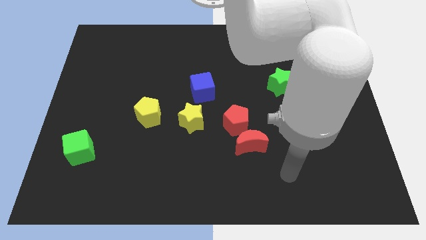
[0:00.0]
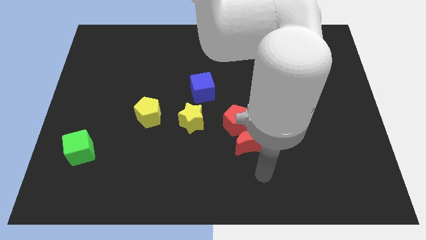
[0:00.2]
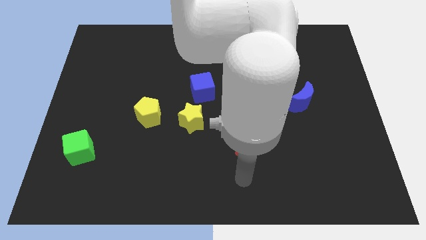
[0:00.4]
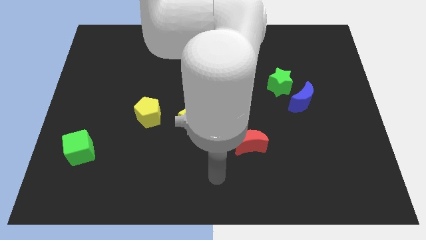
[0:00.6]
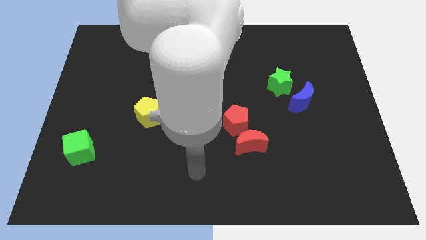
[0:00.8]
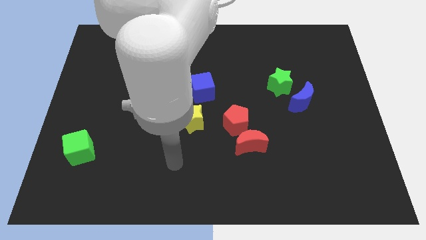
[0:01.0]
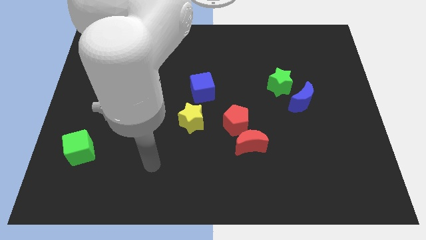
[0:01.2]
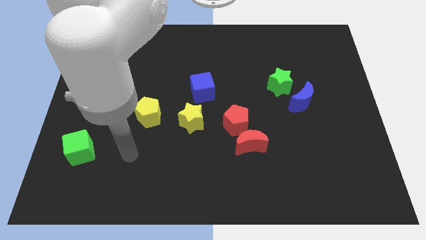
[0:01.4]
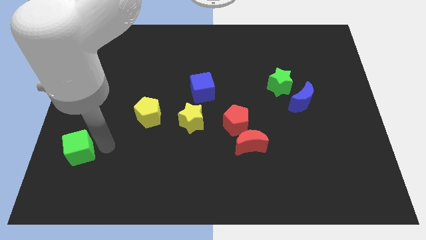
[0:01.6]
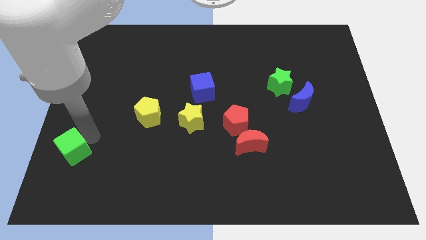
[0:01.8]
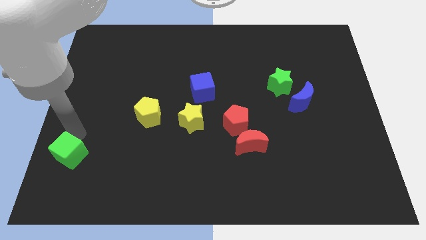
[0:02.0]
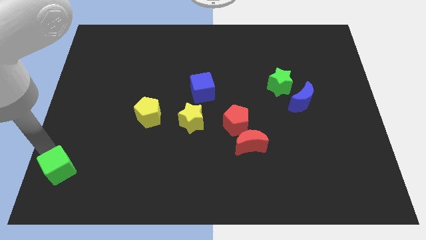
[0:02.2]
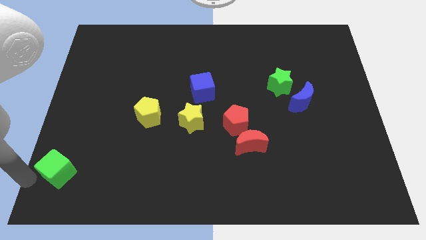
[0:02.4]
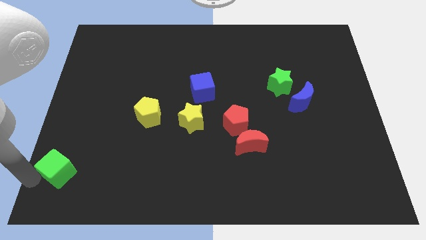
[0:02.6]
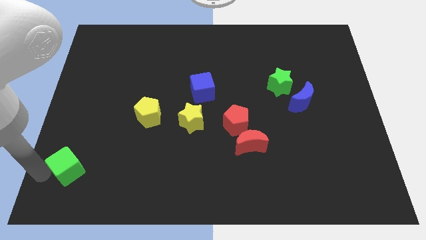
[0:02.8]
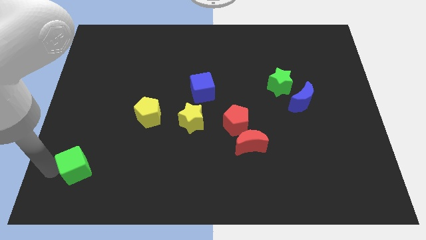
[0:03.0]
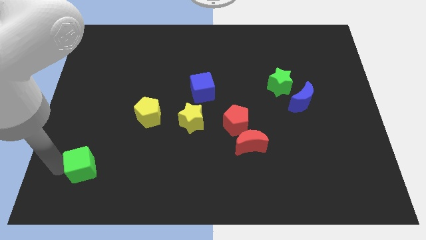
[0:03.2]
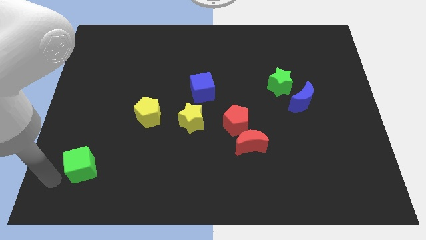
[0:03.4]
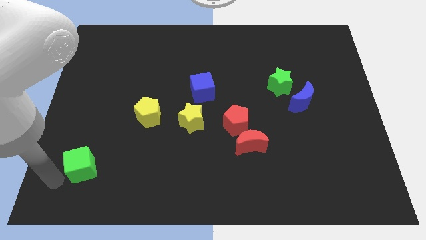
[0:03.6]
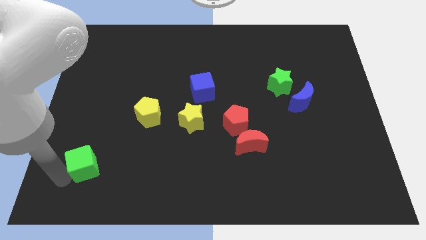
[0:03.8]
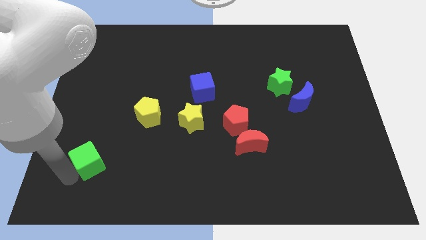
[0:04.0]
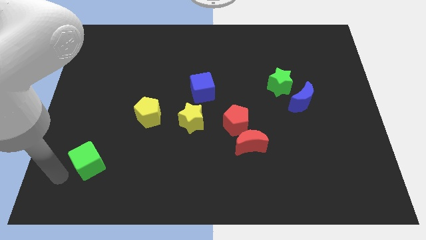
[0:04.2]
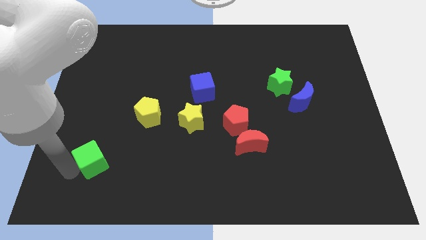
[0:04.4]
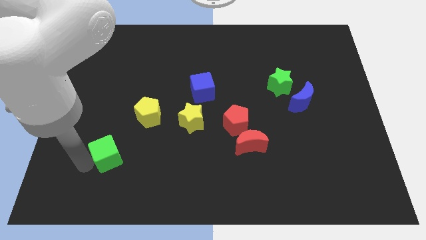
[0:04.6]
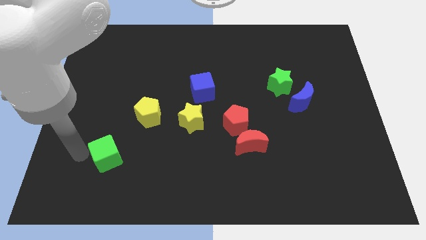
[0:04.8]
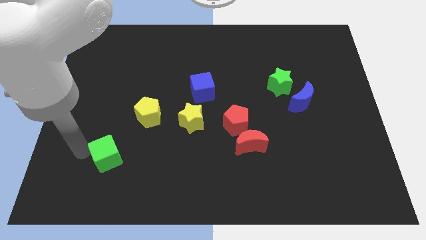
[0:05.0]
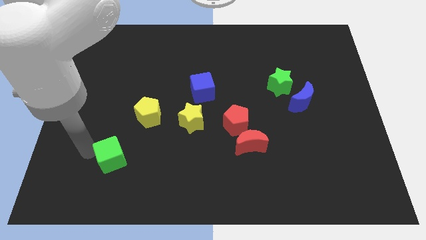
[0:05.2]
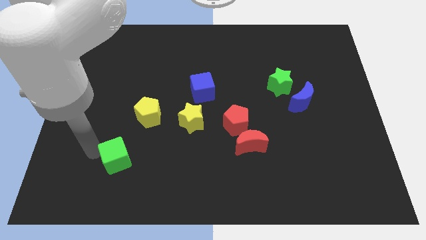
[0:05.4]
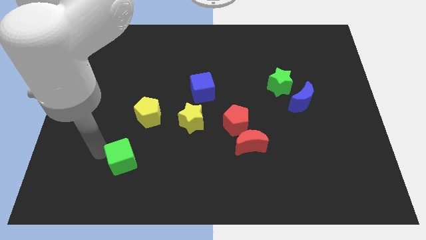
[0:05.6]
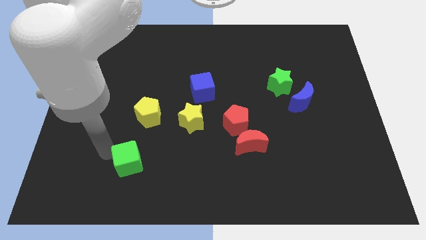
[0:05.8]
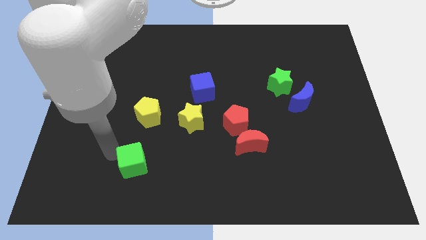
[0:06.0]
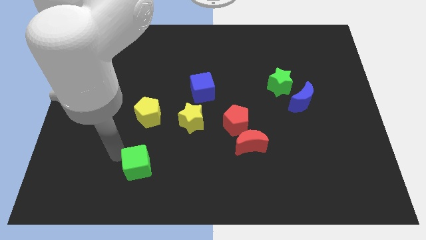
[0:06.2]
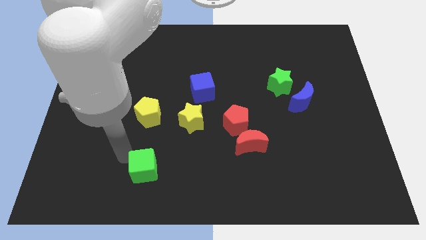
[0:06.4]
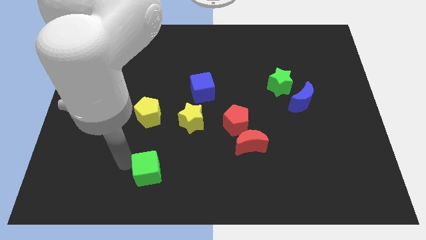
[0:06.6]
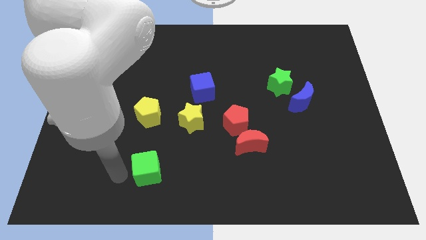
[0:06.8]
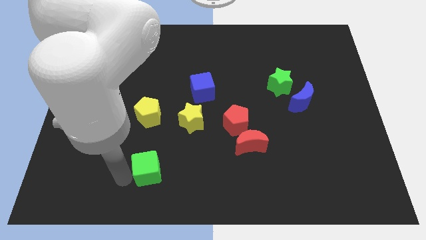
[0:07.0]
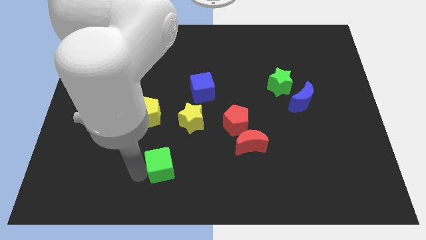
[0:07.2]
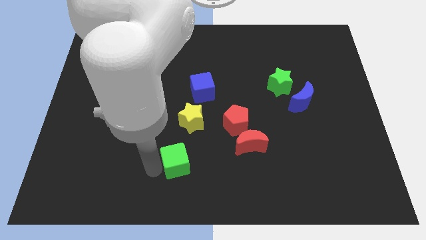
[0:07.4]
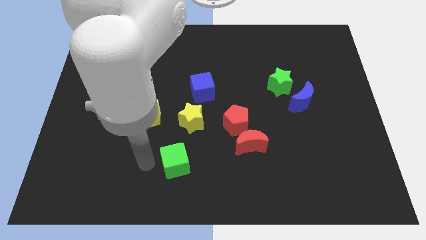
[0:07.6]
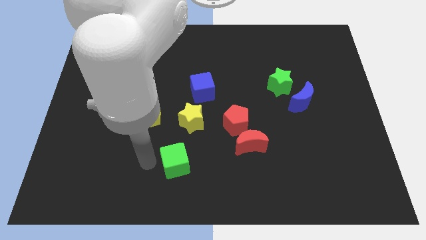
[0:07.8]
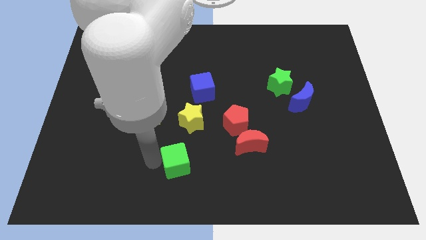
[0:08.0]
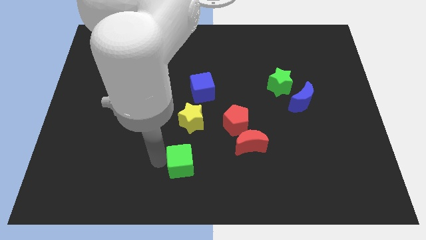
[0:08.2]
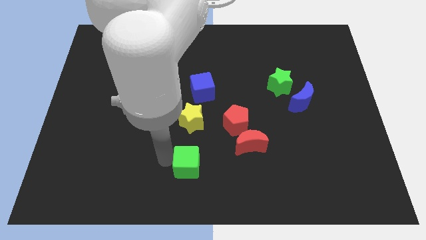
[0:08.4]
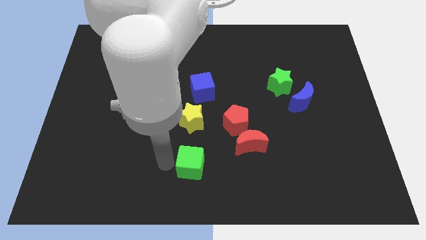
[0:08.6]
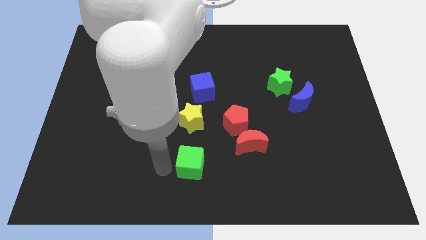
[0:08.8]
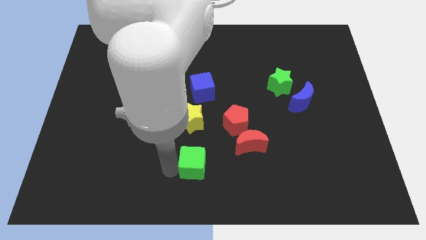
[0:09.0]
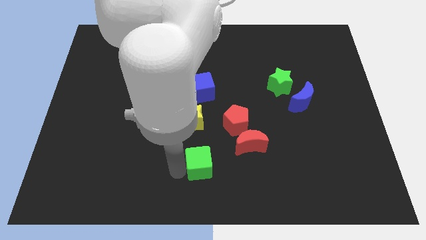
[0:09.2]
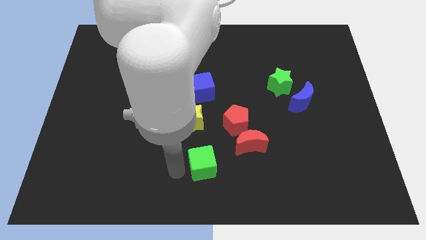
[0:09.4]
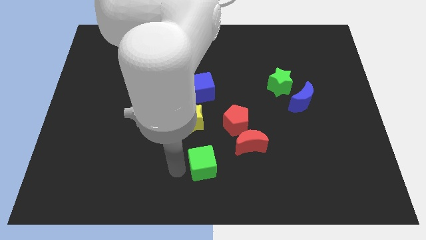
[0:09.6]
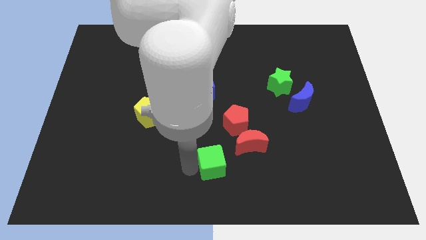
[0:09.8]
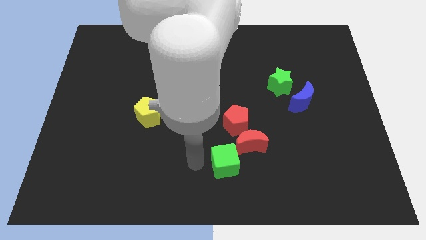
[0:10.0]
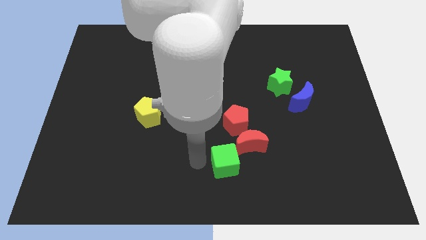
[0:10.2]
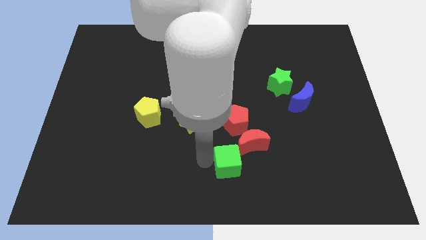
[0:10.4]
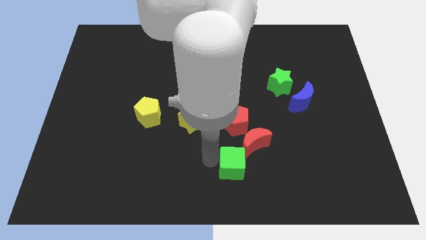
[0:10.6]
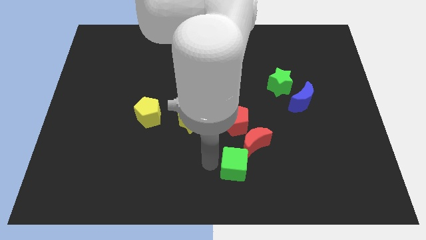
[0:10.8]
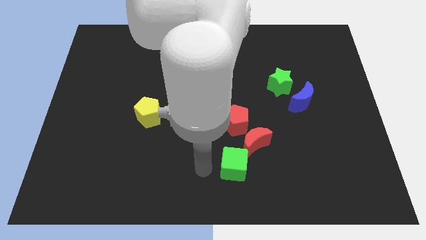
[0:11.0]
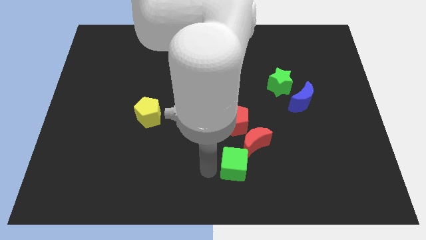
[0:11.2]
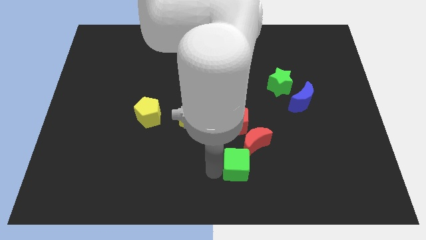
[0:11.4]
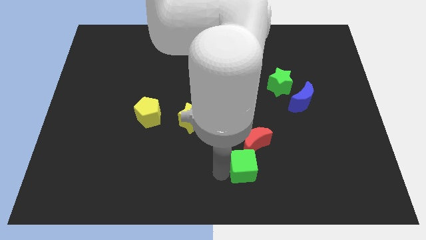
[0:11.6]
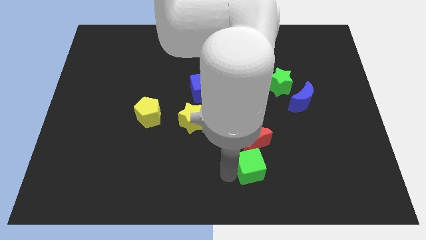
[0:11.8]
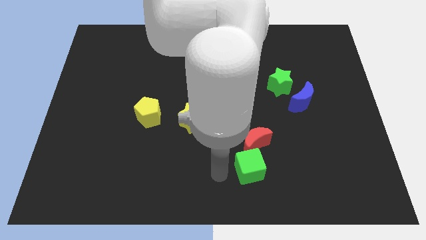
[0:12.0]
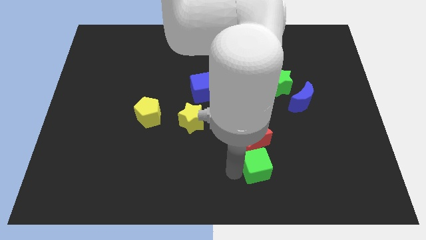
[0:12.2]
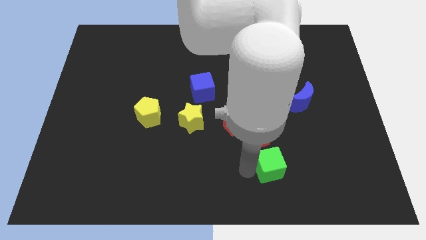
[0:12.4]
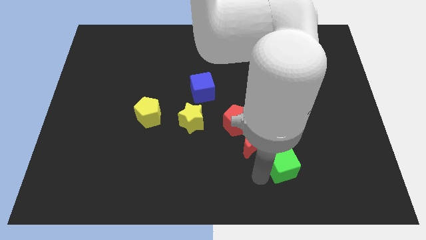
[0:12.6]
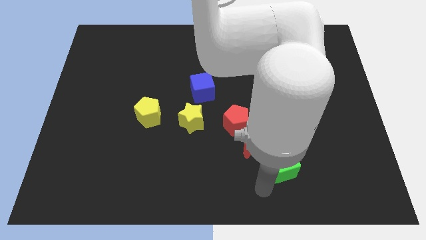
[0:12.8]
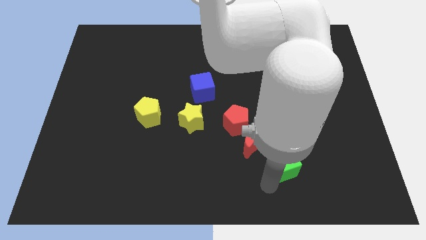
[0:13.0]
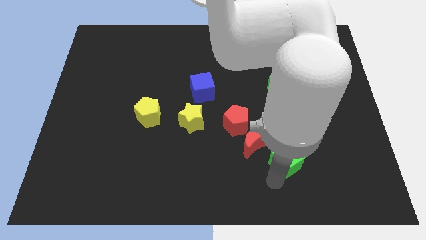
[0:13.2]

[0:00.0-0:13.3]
push the green cube to the right side of the red moon
